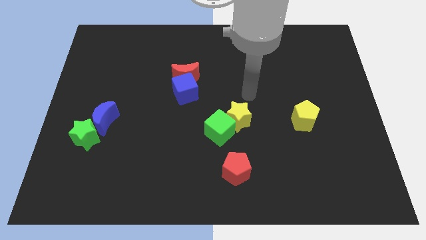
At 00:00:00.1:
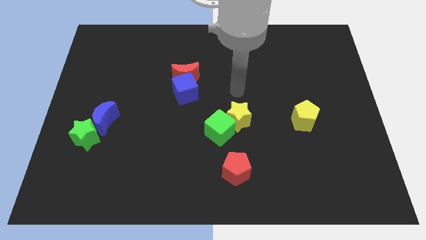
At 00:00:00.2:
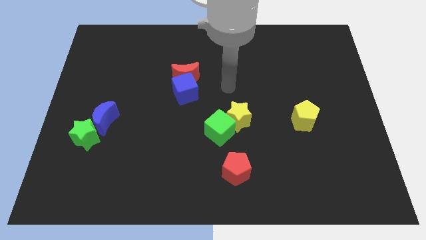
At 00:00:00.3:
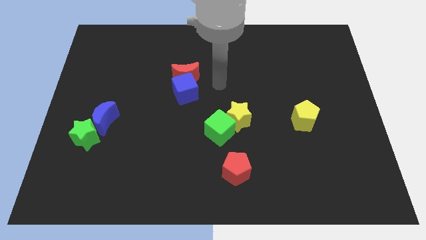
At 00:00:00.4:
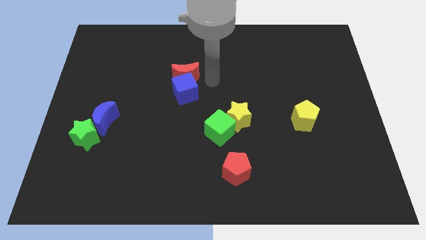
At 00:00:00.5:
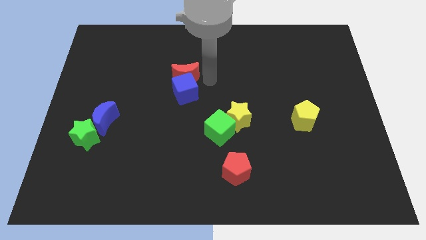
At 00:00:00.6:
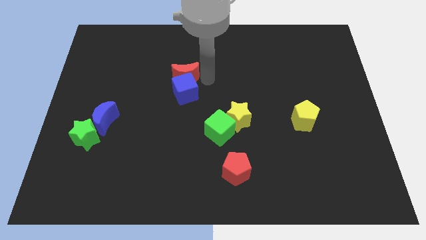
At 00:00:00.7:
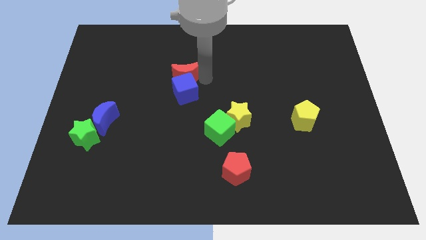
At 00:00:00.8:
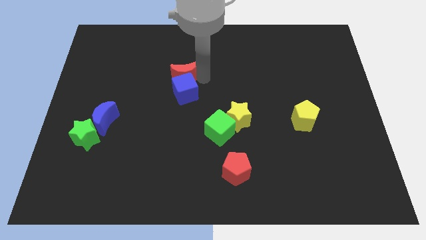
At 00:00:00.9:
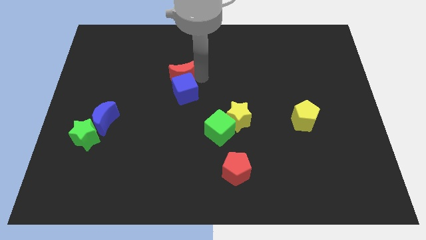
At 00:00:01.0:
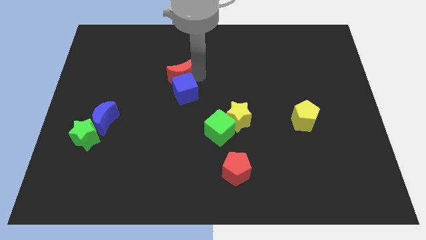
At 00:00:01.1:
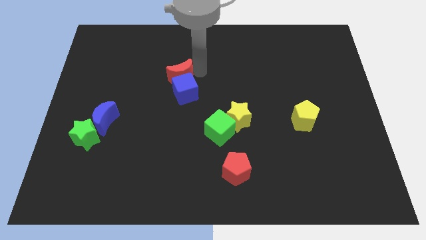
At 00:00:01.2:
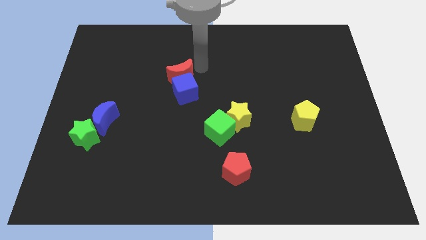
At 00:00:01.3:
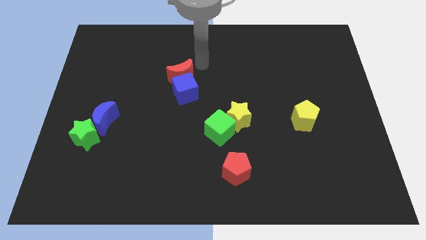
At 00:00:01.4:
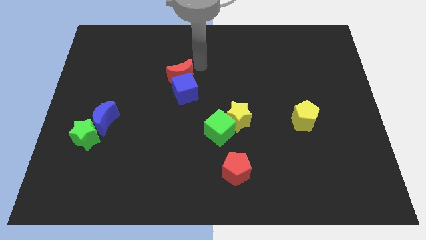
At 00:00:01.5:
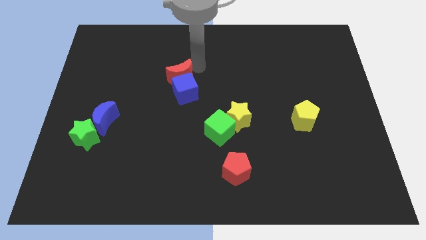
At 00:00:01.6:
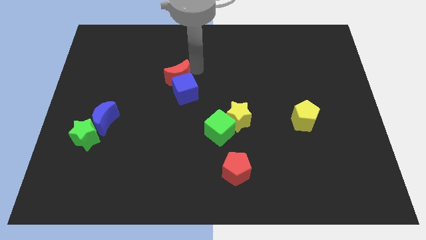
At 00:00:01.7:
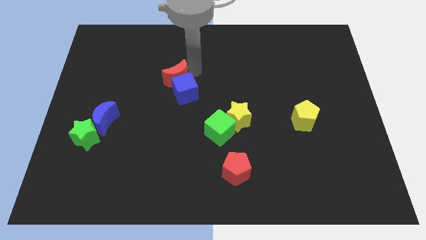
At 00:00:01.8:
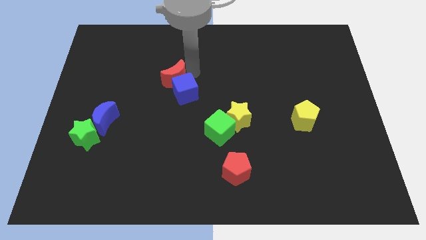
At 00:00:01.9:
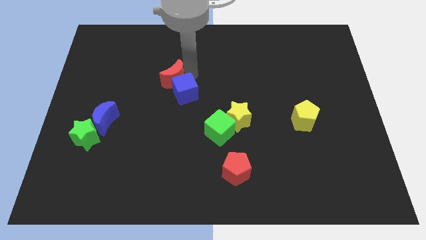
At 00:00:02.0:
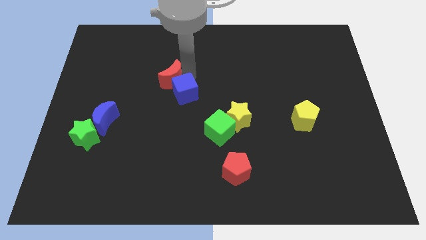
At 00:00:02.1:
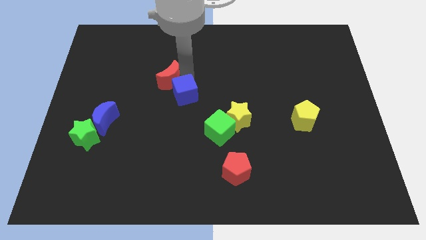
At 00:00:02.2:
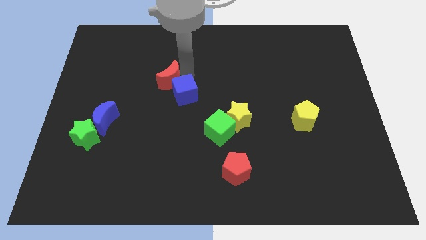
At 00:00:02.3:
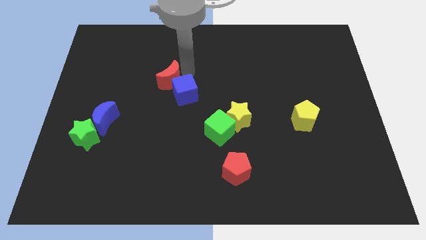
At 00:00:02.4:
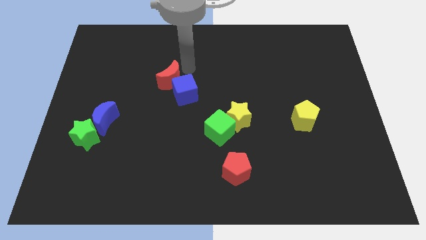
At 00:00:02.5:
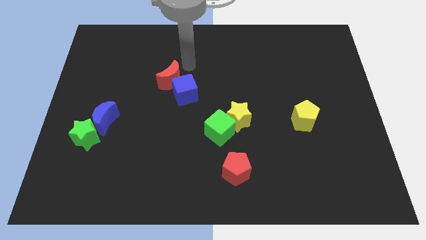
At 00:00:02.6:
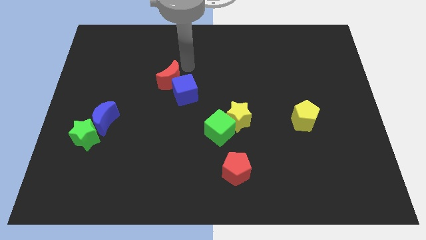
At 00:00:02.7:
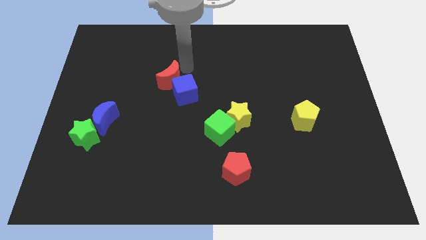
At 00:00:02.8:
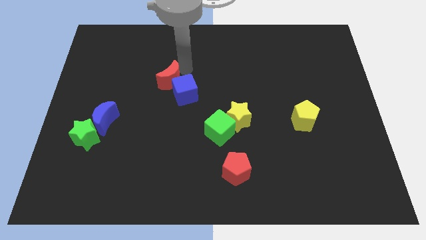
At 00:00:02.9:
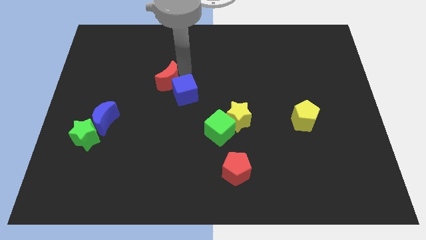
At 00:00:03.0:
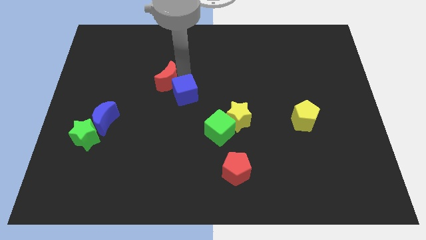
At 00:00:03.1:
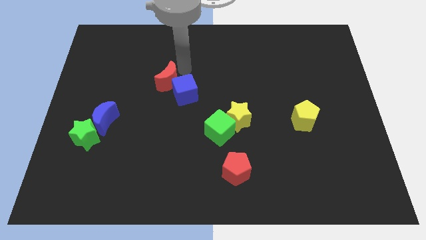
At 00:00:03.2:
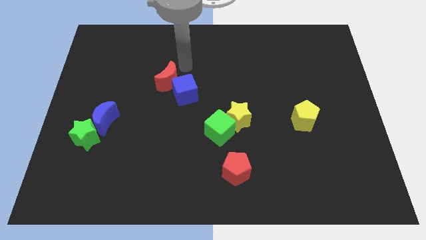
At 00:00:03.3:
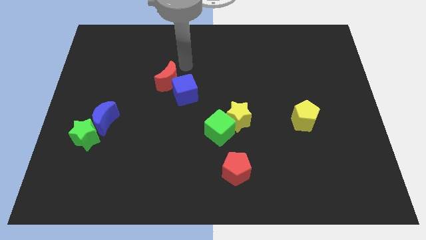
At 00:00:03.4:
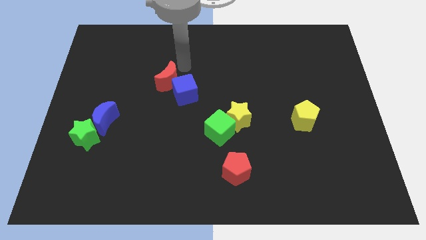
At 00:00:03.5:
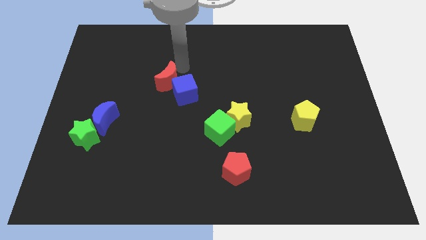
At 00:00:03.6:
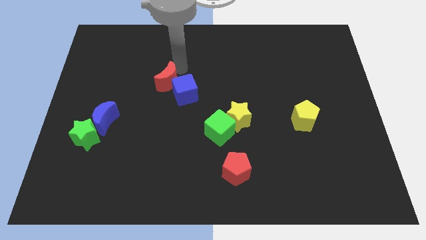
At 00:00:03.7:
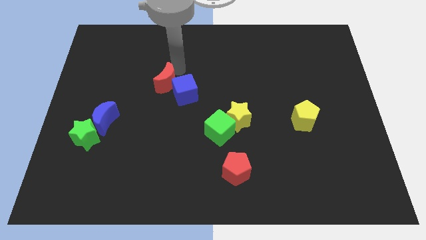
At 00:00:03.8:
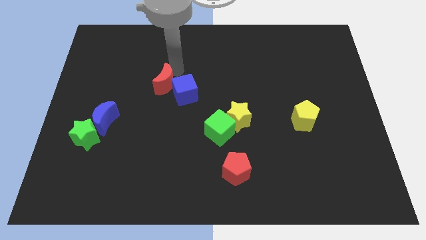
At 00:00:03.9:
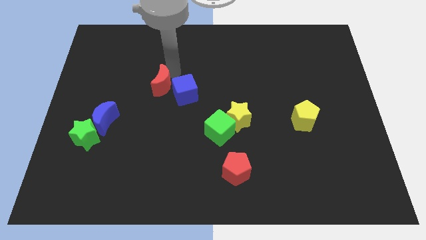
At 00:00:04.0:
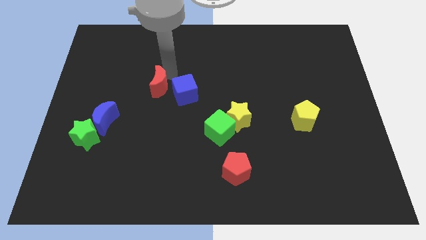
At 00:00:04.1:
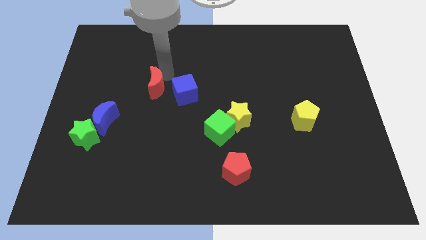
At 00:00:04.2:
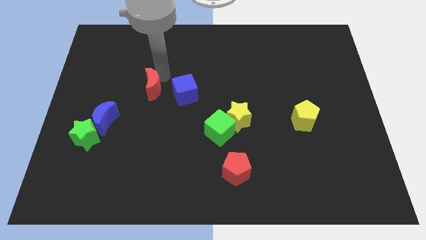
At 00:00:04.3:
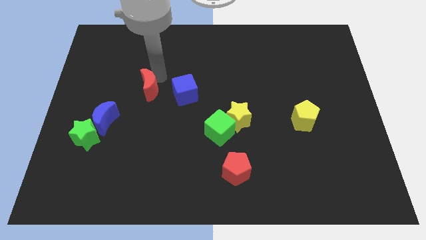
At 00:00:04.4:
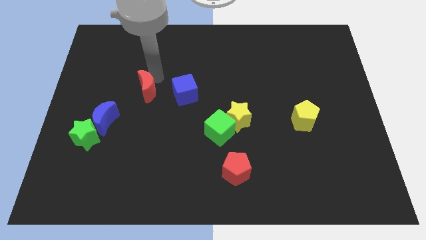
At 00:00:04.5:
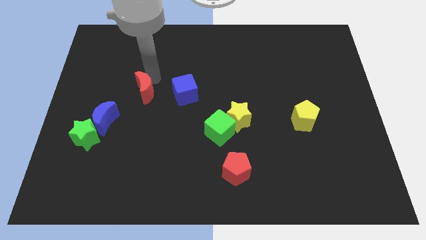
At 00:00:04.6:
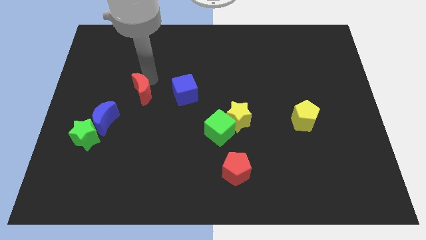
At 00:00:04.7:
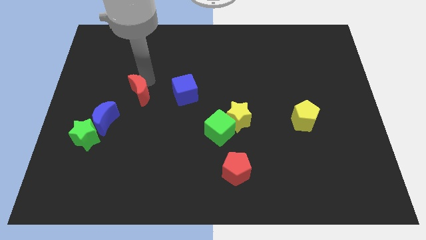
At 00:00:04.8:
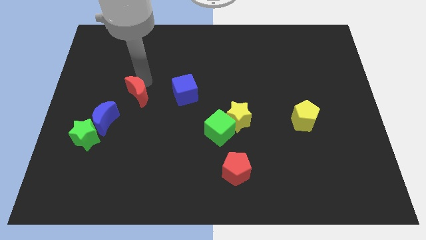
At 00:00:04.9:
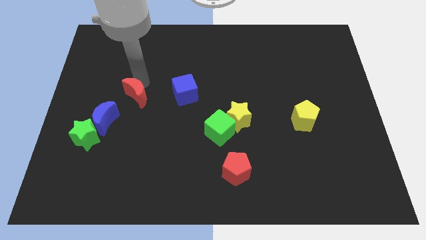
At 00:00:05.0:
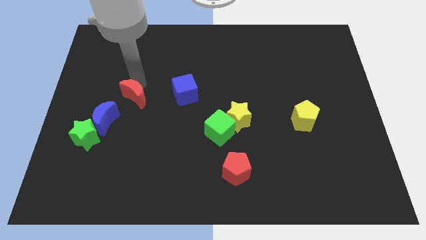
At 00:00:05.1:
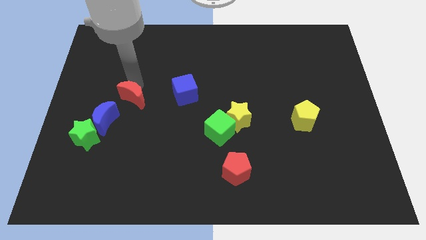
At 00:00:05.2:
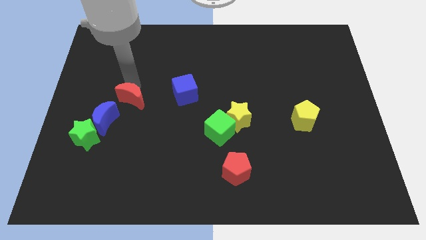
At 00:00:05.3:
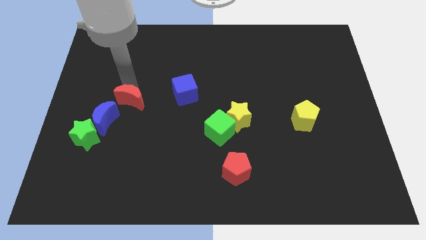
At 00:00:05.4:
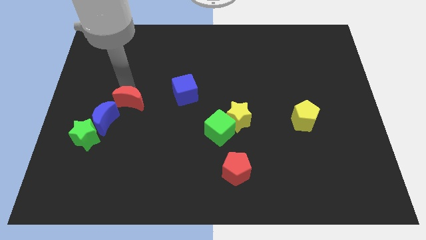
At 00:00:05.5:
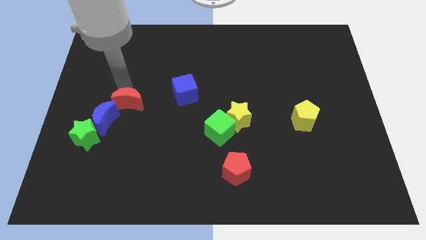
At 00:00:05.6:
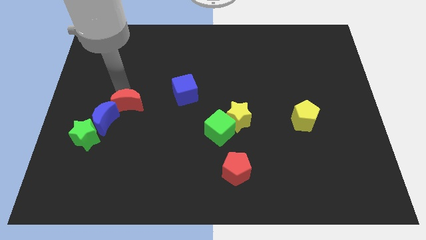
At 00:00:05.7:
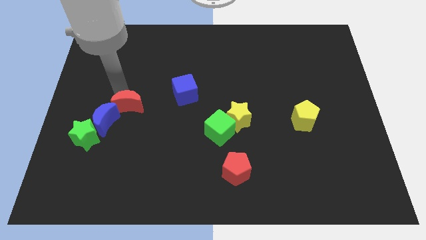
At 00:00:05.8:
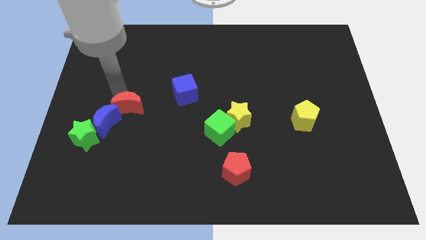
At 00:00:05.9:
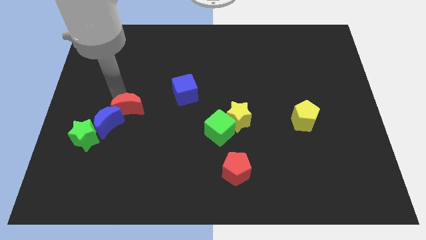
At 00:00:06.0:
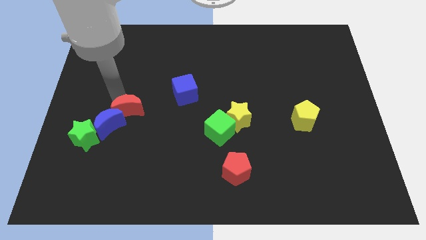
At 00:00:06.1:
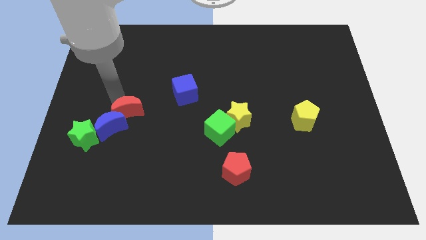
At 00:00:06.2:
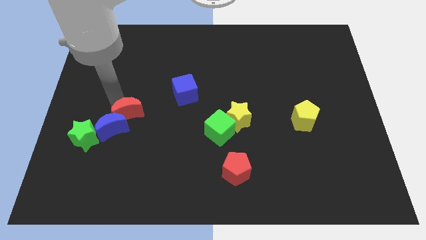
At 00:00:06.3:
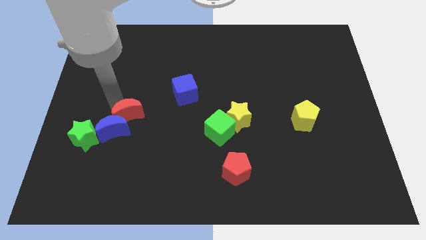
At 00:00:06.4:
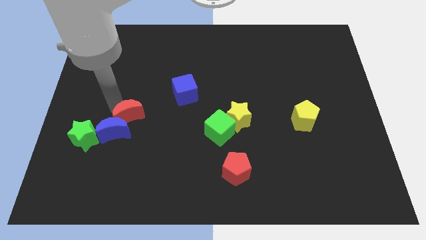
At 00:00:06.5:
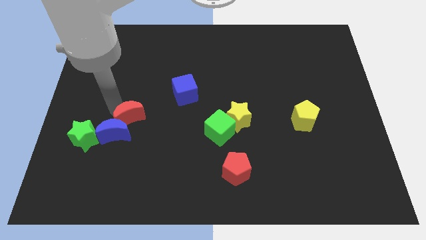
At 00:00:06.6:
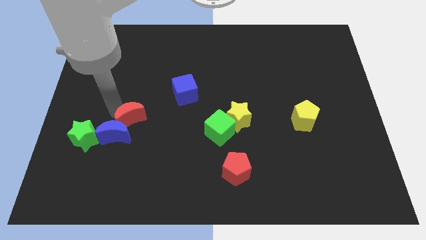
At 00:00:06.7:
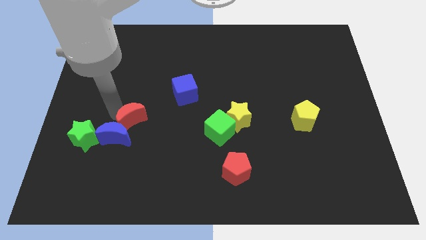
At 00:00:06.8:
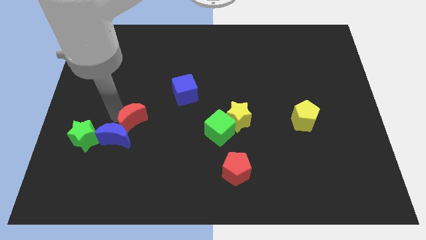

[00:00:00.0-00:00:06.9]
slide the red moon right of the green star
